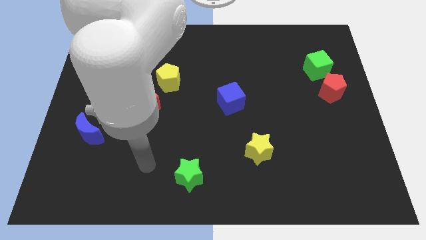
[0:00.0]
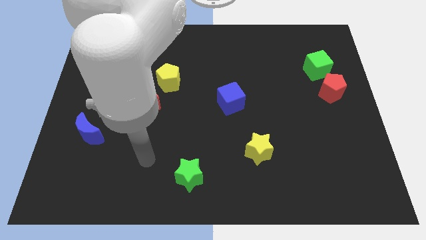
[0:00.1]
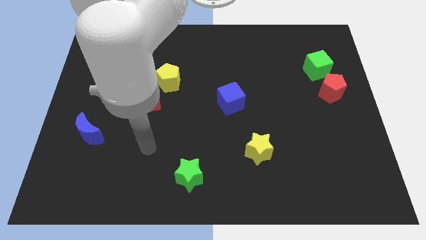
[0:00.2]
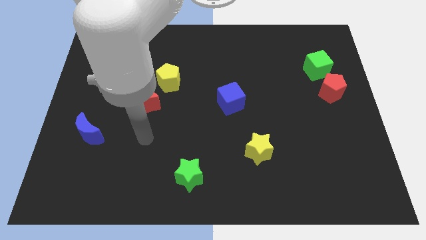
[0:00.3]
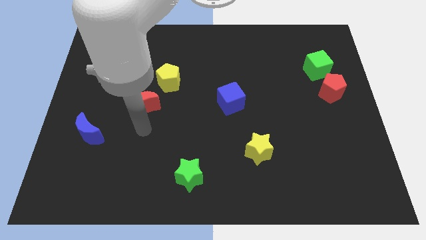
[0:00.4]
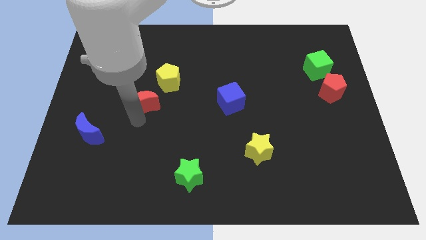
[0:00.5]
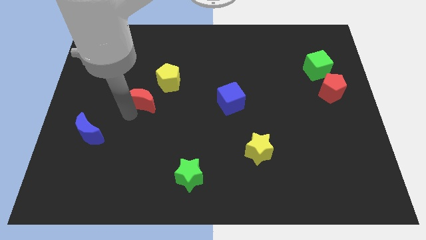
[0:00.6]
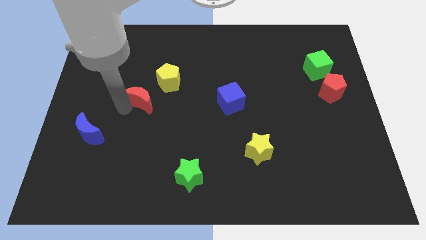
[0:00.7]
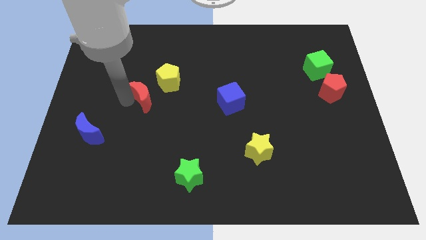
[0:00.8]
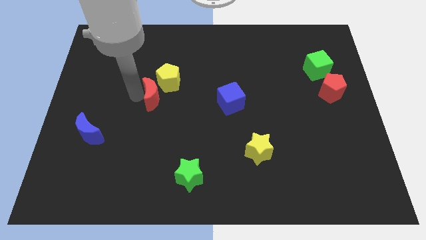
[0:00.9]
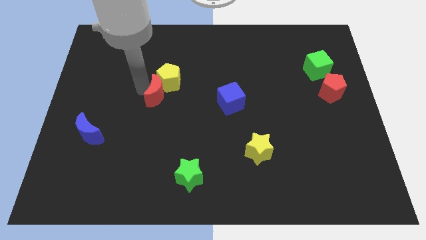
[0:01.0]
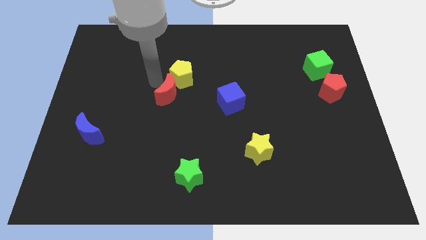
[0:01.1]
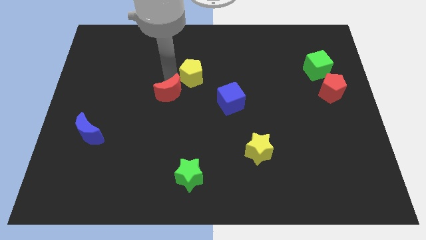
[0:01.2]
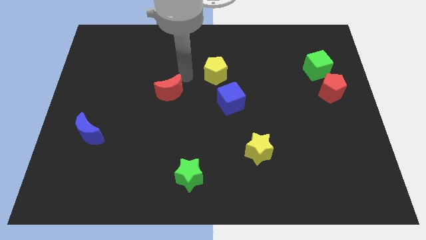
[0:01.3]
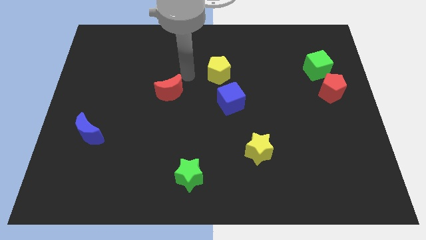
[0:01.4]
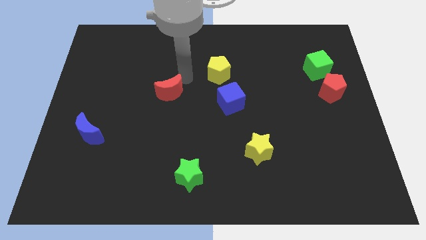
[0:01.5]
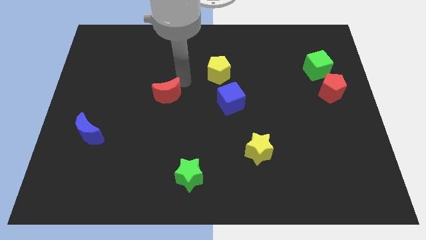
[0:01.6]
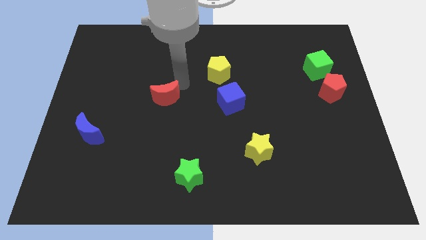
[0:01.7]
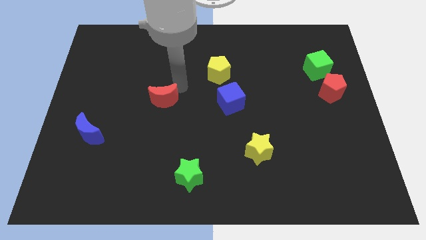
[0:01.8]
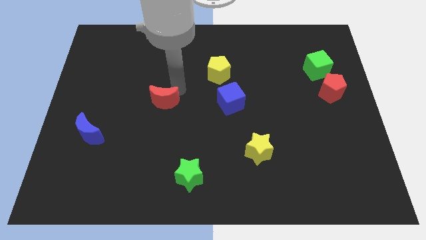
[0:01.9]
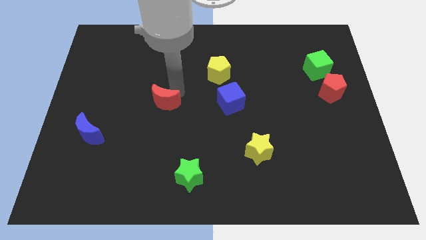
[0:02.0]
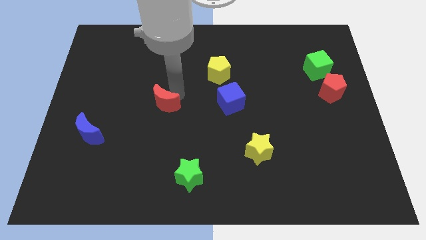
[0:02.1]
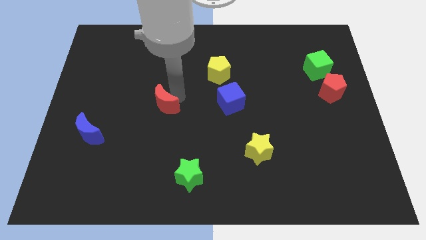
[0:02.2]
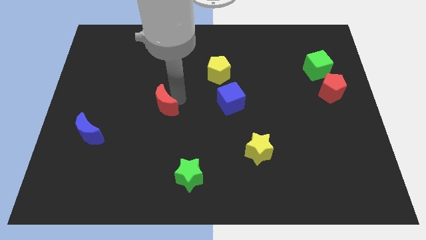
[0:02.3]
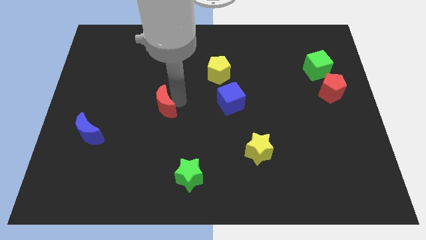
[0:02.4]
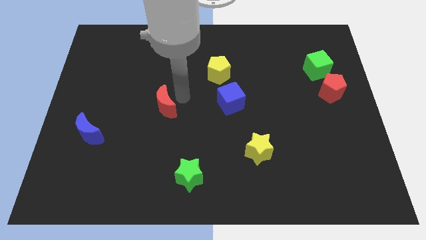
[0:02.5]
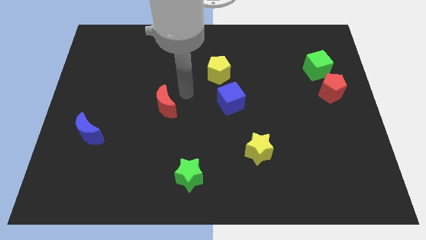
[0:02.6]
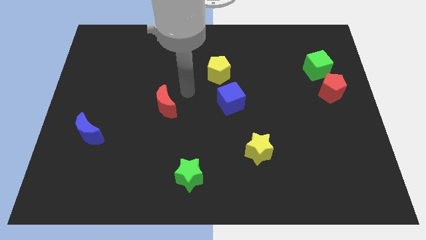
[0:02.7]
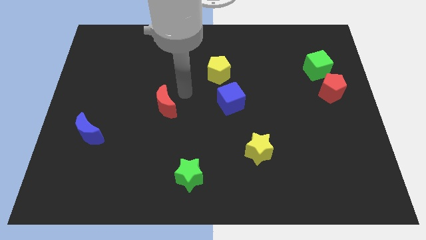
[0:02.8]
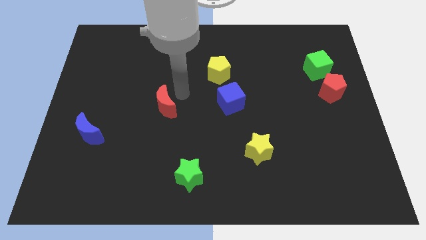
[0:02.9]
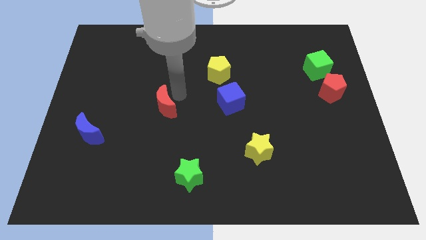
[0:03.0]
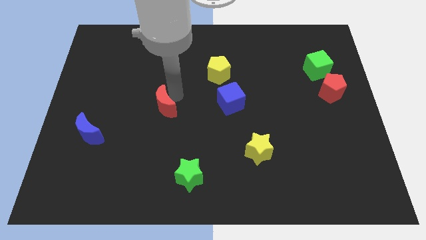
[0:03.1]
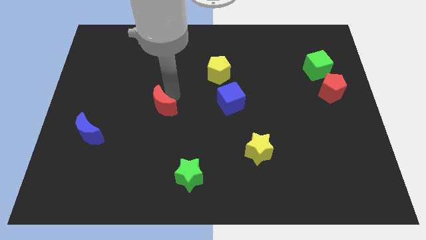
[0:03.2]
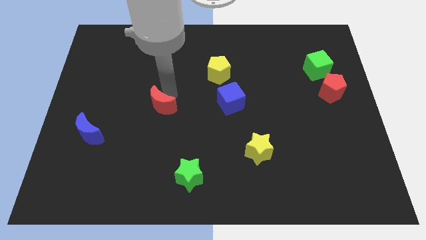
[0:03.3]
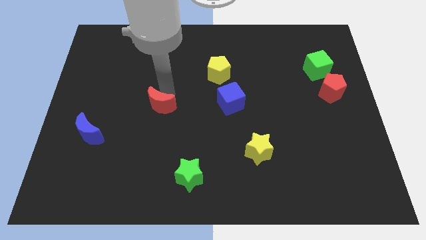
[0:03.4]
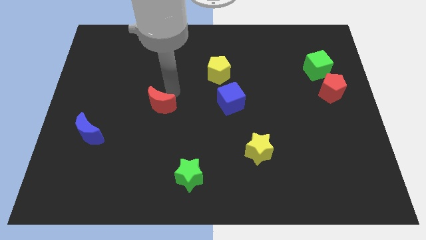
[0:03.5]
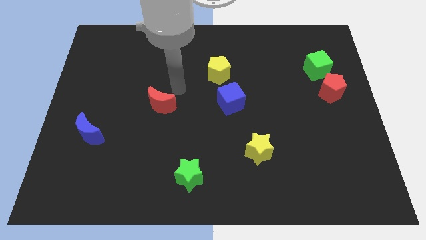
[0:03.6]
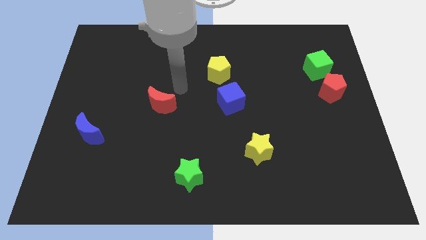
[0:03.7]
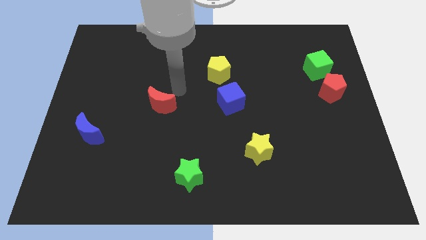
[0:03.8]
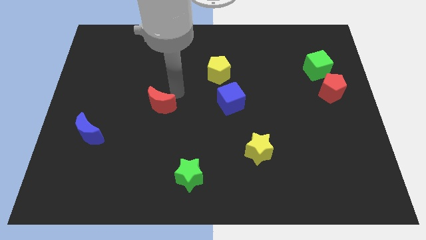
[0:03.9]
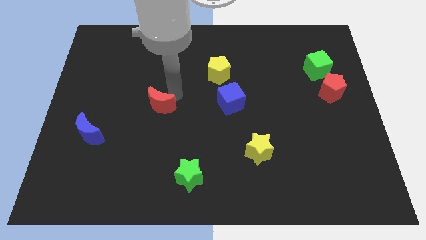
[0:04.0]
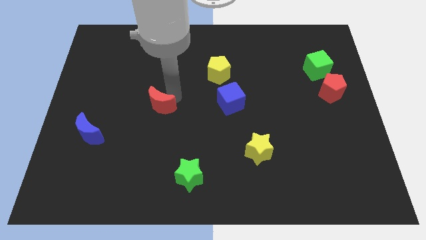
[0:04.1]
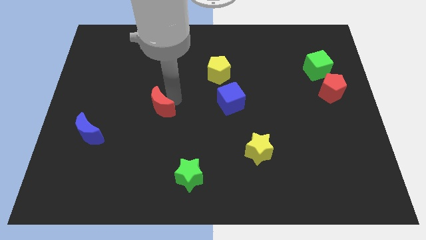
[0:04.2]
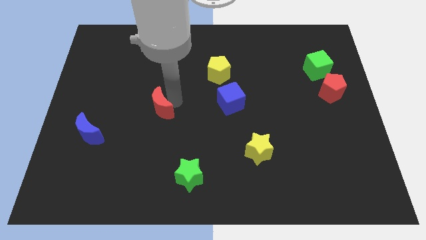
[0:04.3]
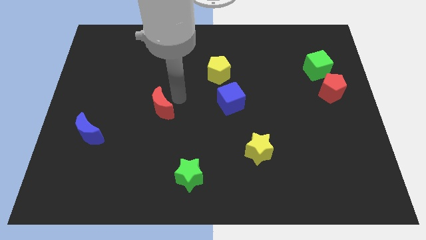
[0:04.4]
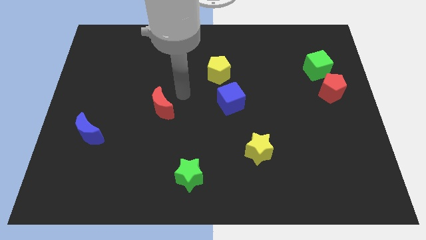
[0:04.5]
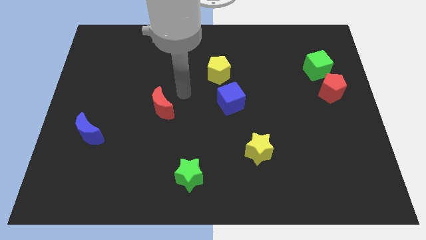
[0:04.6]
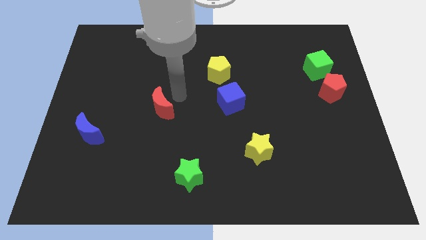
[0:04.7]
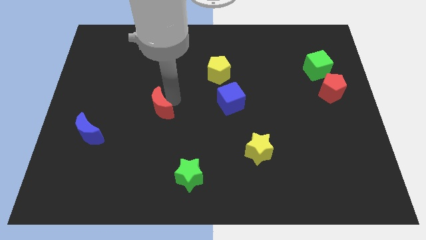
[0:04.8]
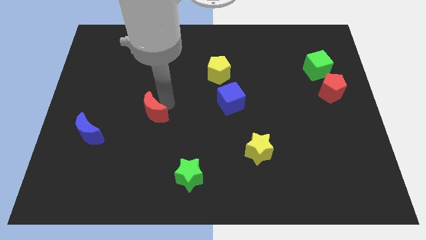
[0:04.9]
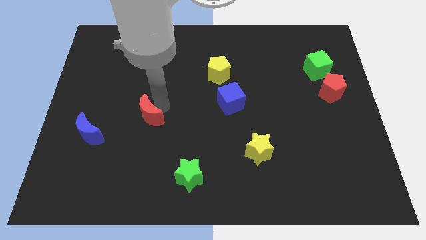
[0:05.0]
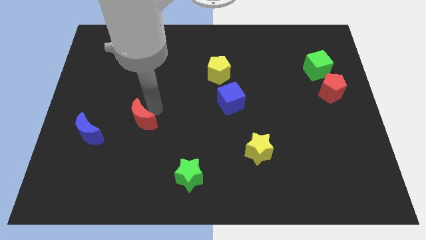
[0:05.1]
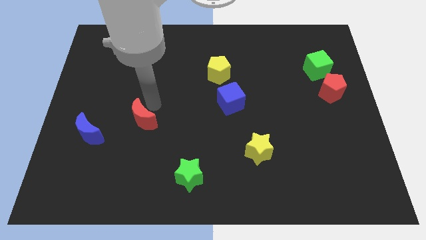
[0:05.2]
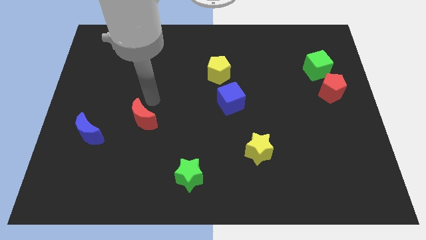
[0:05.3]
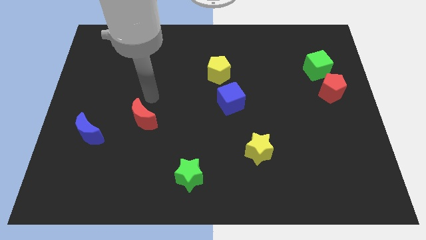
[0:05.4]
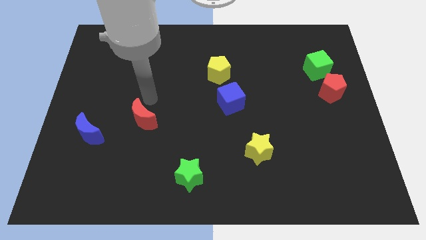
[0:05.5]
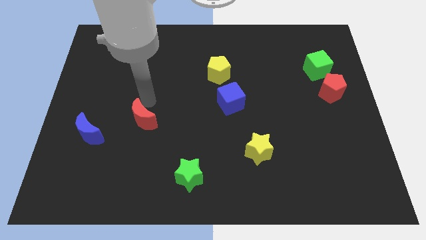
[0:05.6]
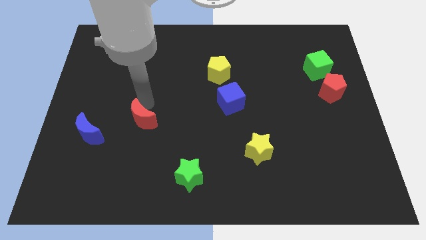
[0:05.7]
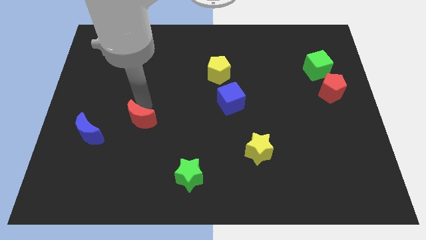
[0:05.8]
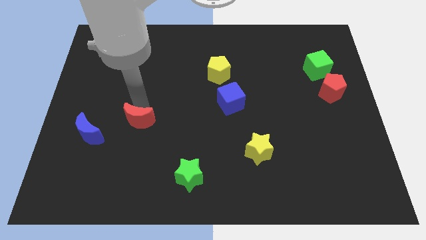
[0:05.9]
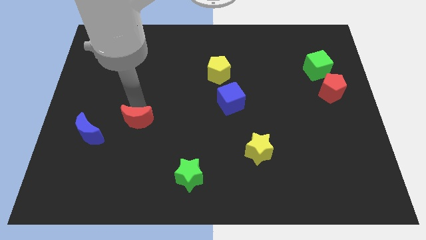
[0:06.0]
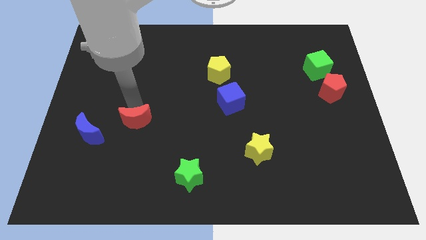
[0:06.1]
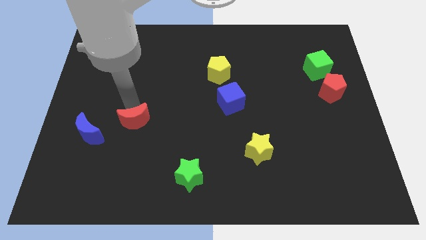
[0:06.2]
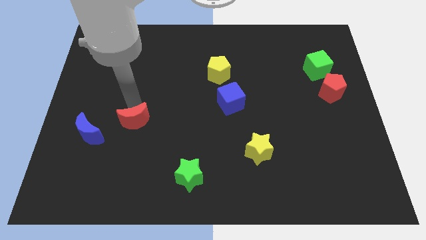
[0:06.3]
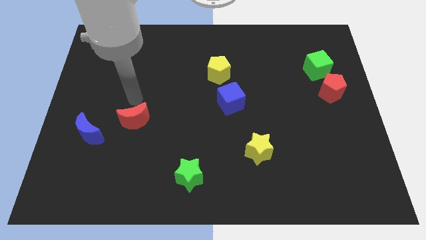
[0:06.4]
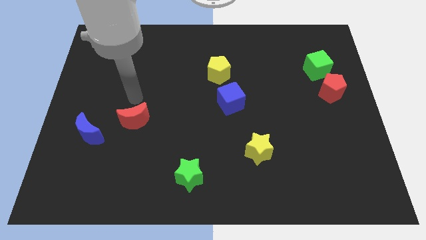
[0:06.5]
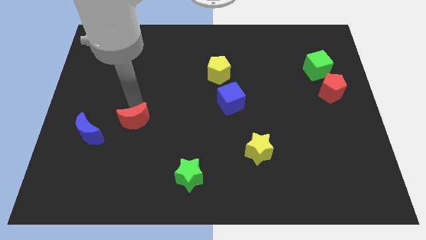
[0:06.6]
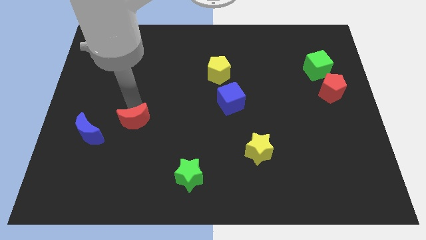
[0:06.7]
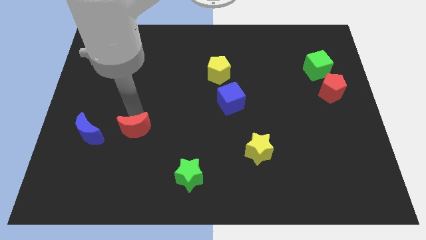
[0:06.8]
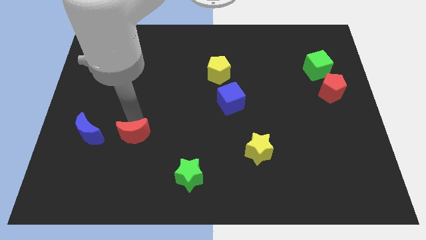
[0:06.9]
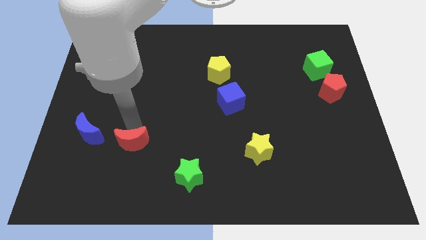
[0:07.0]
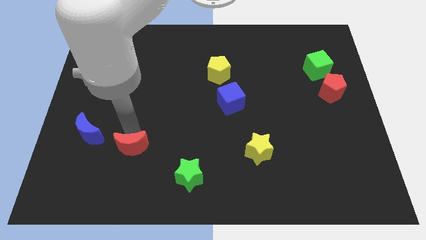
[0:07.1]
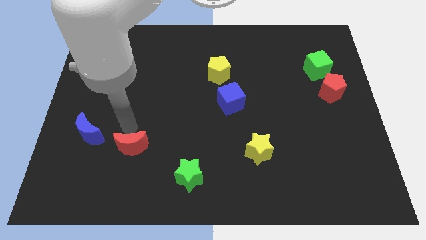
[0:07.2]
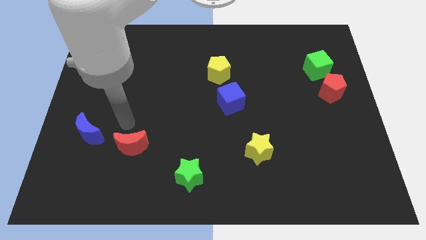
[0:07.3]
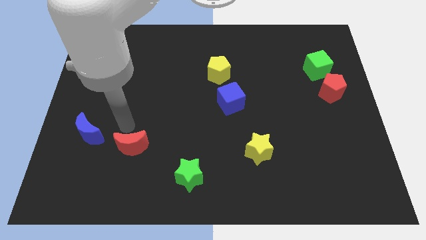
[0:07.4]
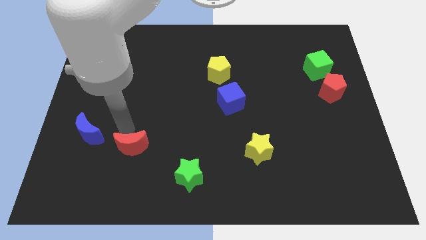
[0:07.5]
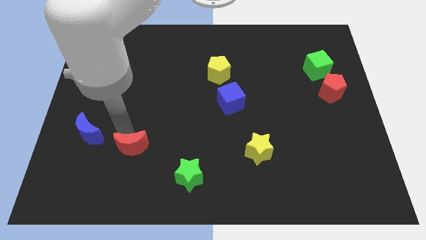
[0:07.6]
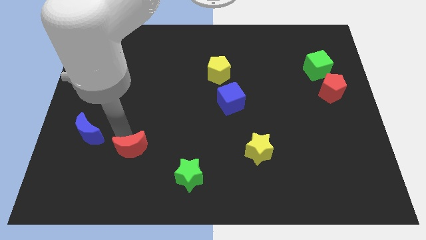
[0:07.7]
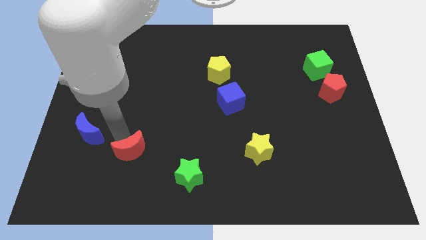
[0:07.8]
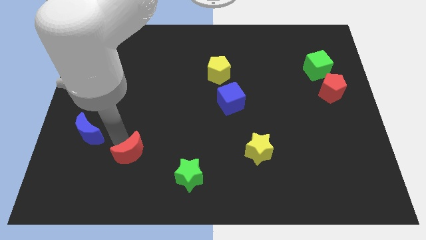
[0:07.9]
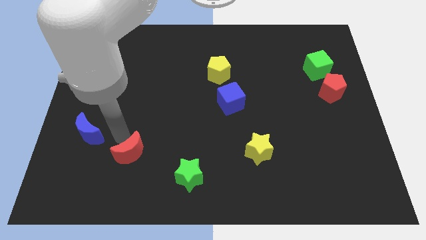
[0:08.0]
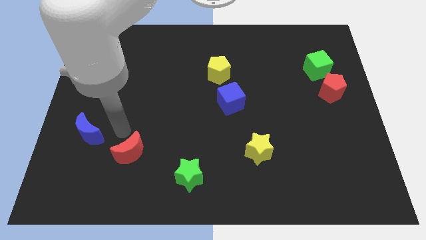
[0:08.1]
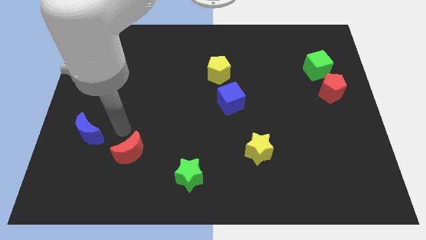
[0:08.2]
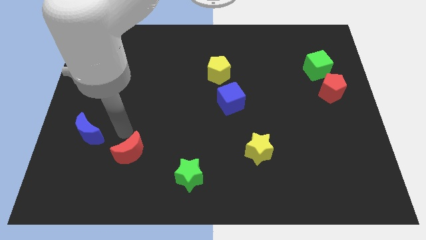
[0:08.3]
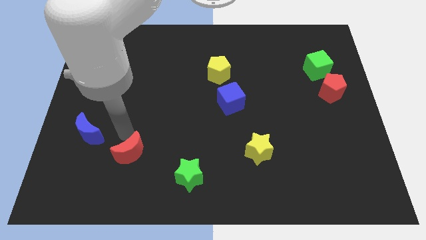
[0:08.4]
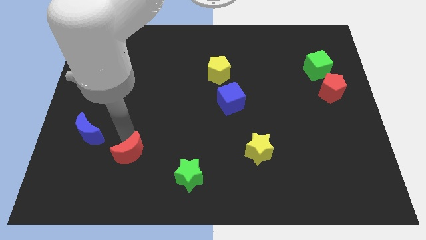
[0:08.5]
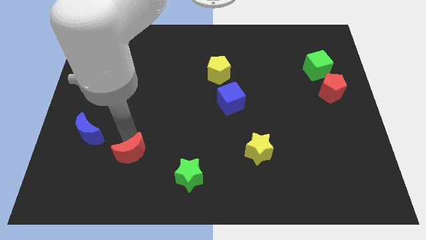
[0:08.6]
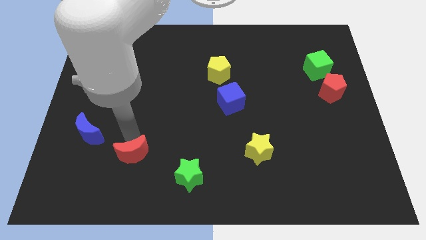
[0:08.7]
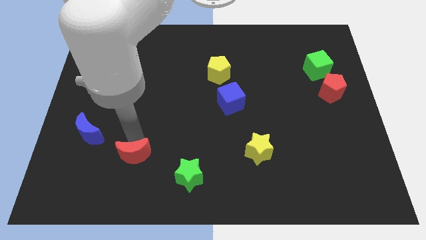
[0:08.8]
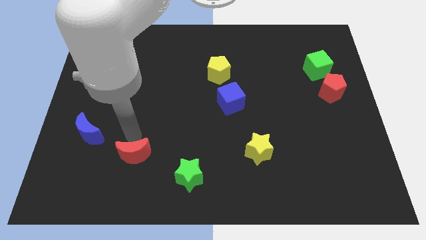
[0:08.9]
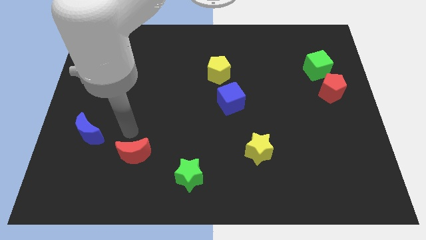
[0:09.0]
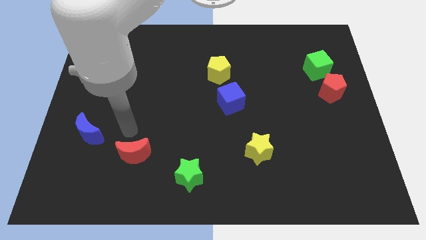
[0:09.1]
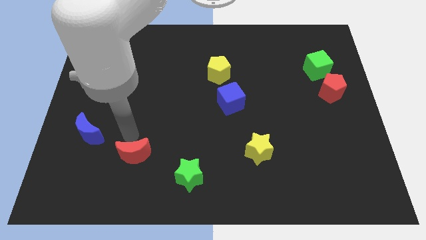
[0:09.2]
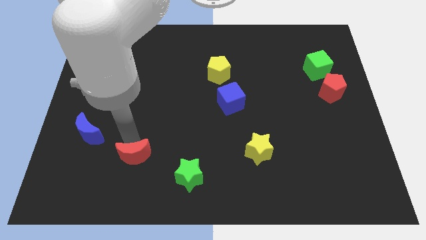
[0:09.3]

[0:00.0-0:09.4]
slide the red moon just left of the green star
